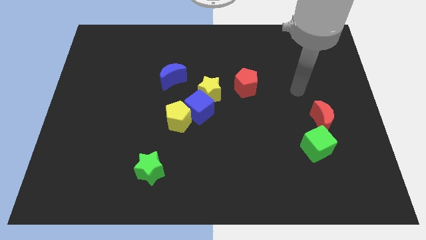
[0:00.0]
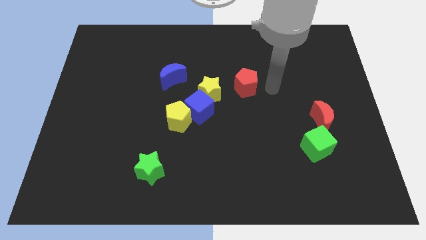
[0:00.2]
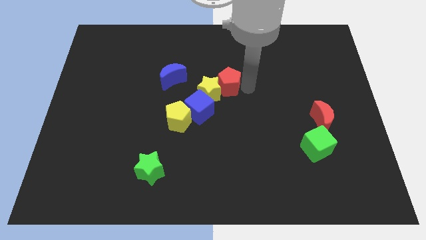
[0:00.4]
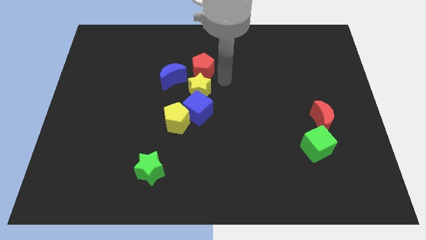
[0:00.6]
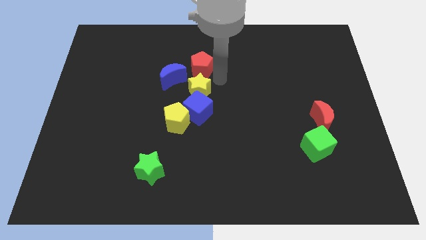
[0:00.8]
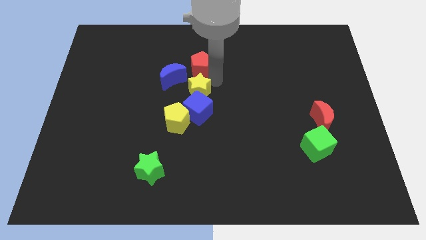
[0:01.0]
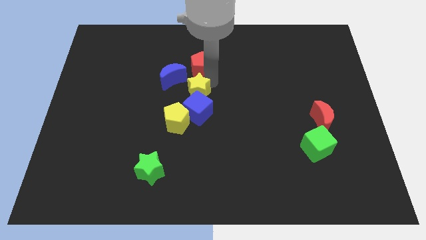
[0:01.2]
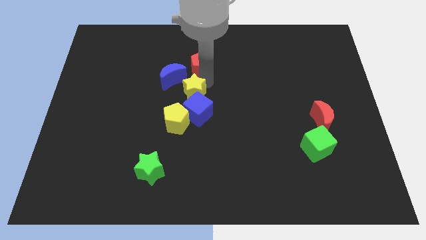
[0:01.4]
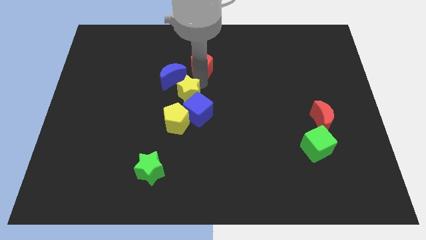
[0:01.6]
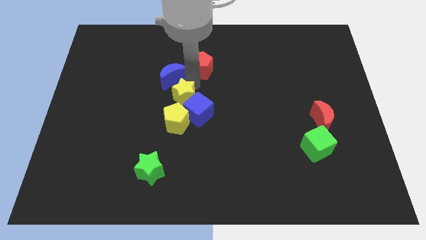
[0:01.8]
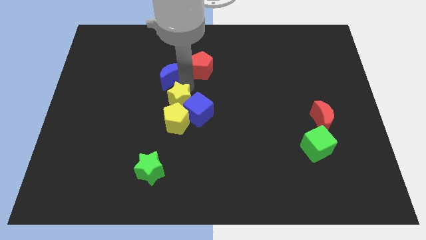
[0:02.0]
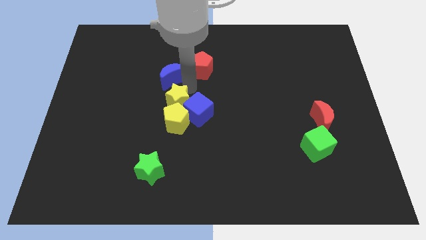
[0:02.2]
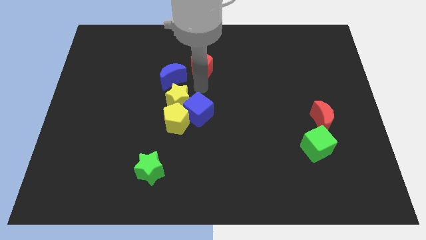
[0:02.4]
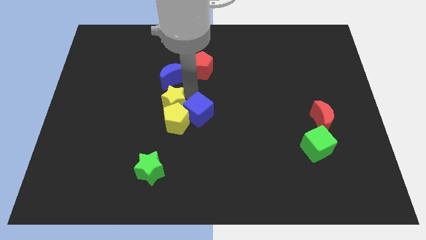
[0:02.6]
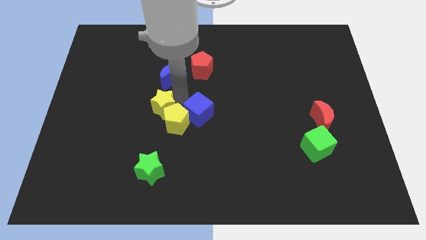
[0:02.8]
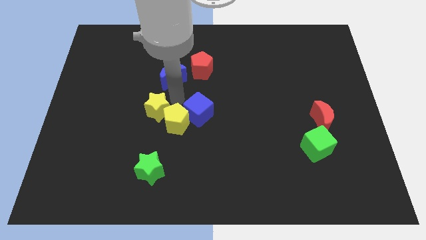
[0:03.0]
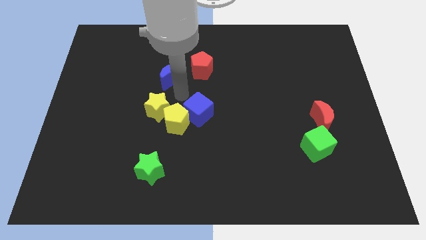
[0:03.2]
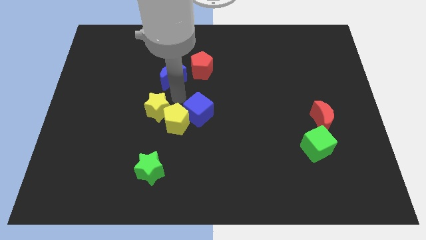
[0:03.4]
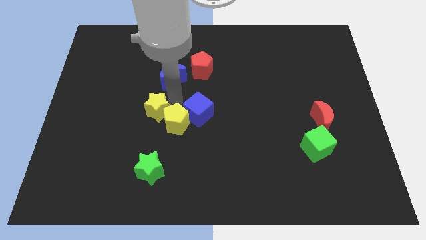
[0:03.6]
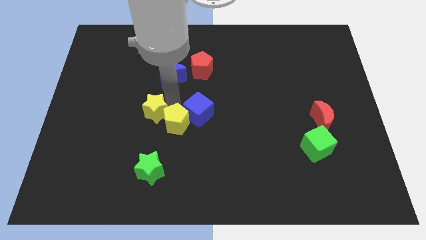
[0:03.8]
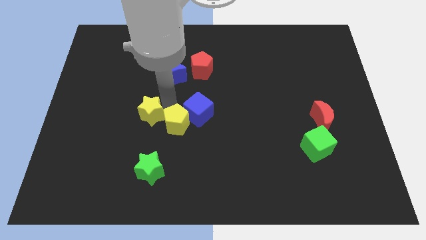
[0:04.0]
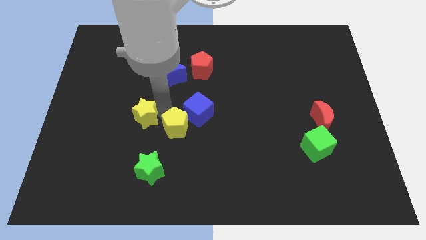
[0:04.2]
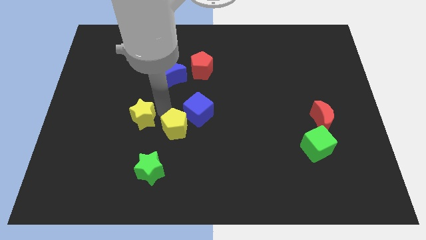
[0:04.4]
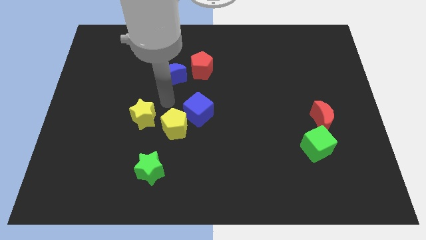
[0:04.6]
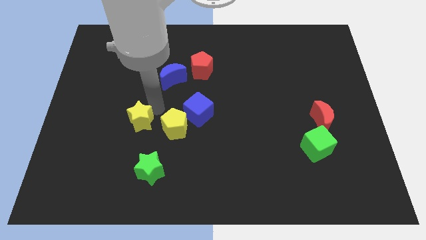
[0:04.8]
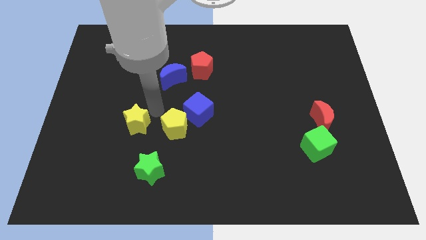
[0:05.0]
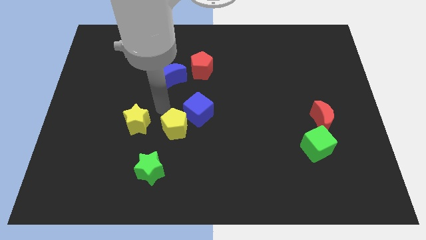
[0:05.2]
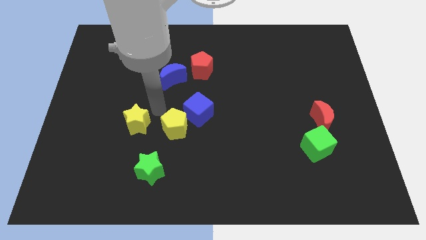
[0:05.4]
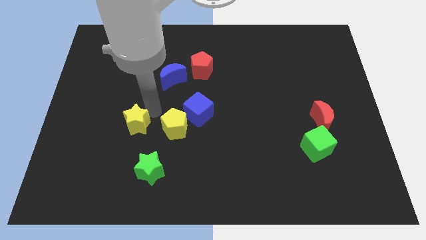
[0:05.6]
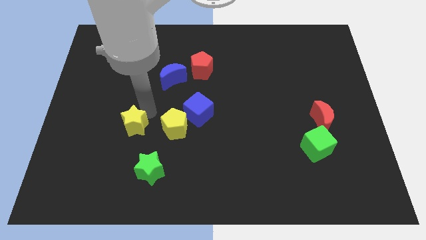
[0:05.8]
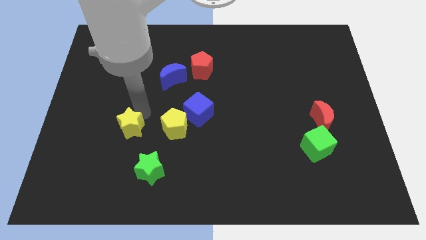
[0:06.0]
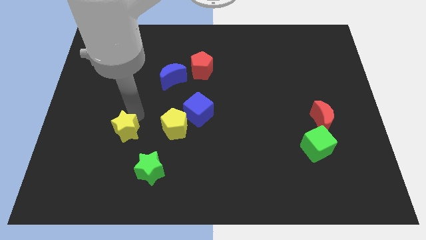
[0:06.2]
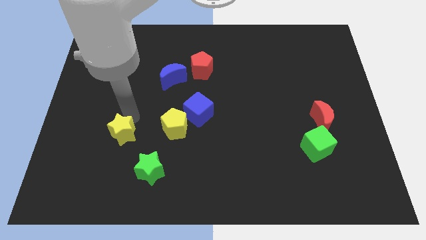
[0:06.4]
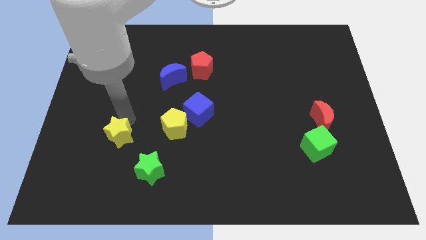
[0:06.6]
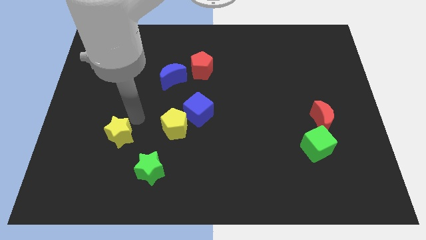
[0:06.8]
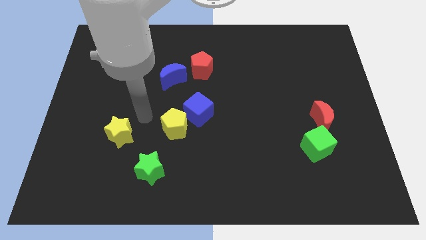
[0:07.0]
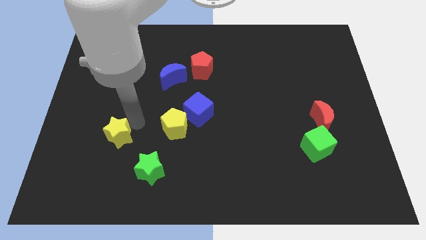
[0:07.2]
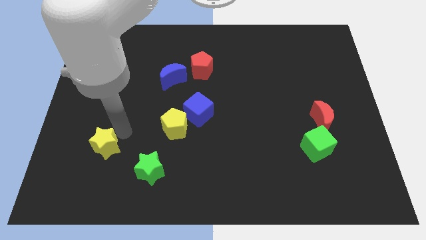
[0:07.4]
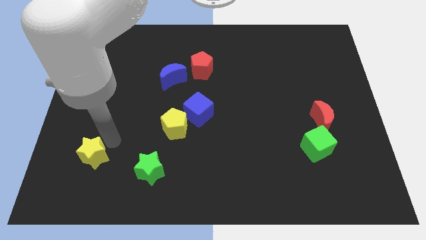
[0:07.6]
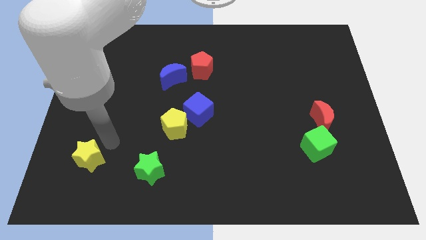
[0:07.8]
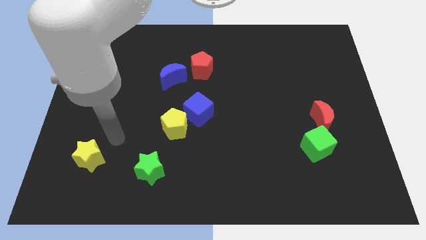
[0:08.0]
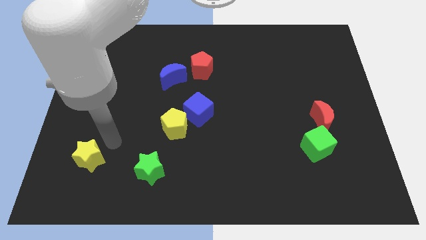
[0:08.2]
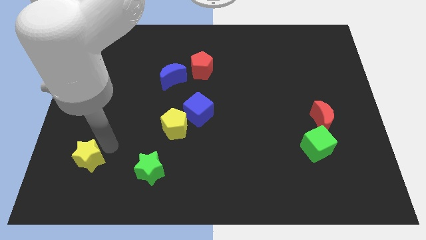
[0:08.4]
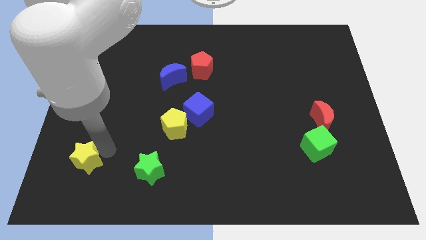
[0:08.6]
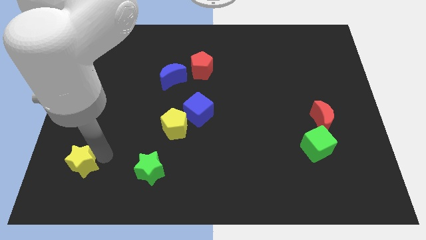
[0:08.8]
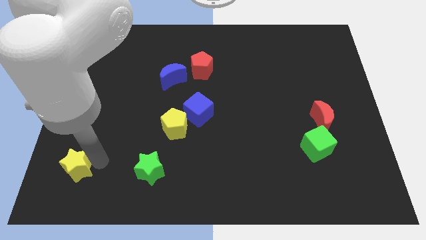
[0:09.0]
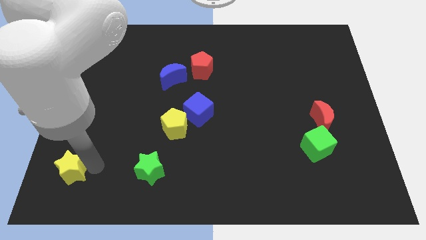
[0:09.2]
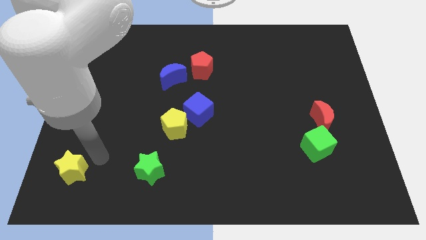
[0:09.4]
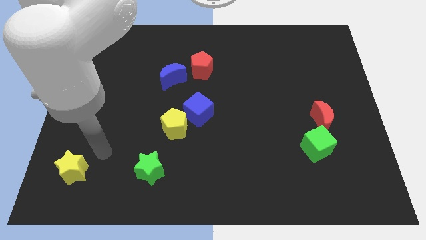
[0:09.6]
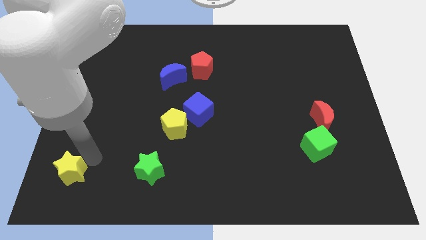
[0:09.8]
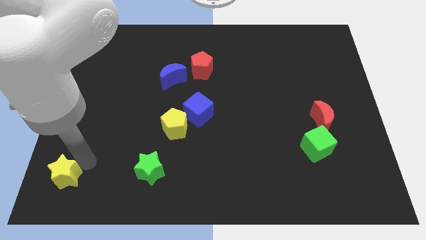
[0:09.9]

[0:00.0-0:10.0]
slide the yellow star to the bottom left

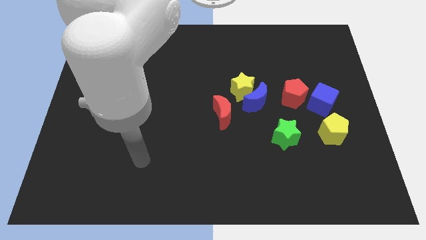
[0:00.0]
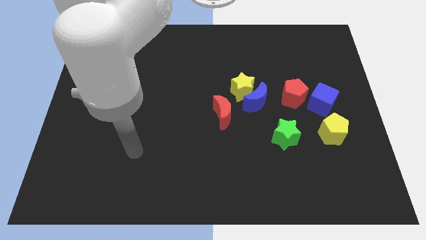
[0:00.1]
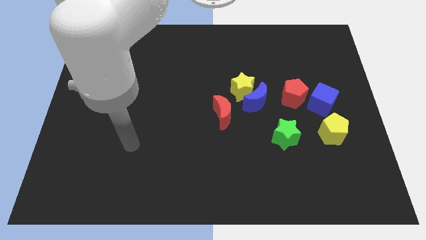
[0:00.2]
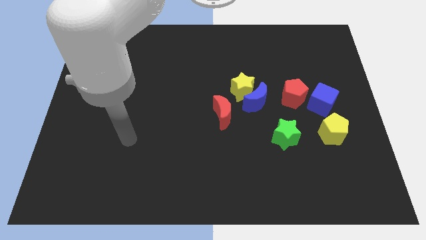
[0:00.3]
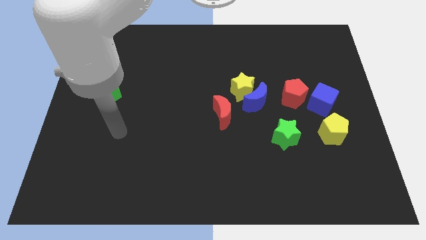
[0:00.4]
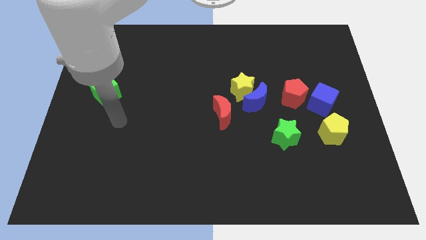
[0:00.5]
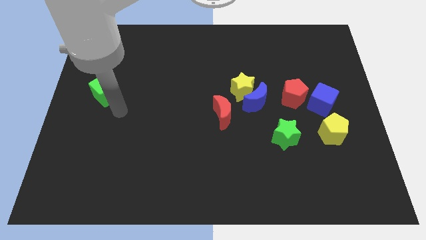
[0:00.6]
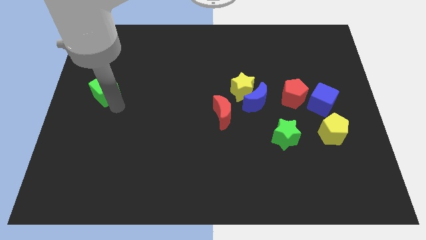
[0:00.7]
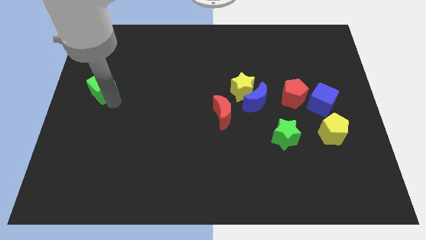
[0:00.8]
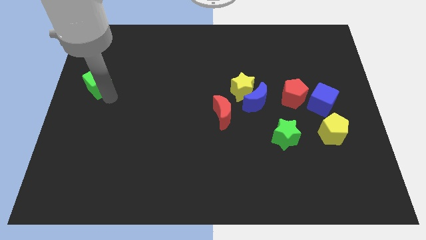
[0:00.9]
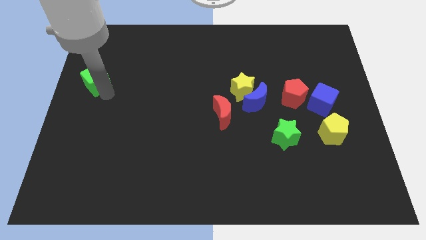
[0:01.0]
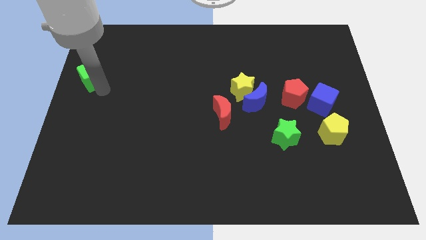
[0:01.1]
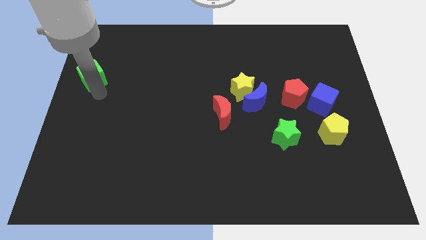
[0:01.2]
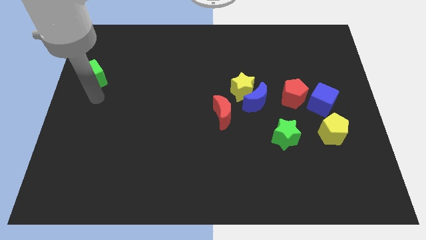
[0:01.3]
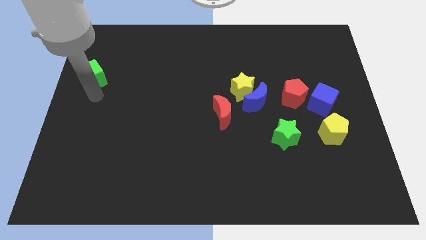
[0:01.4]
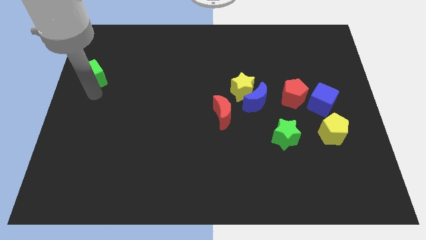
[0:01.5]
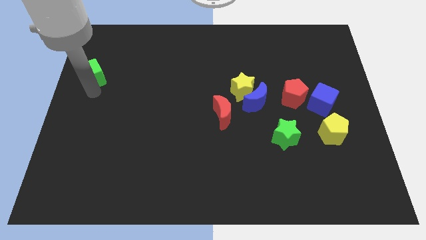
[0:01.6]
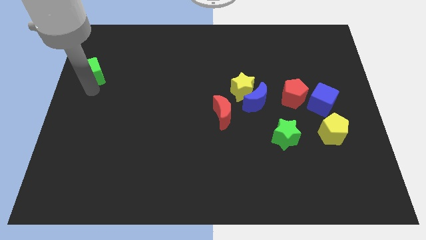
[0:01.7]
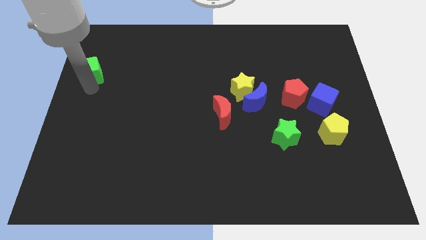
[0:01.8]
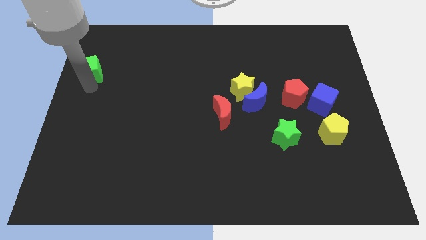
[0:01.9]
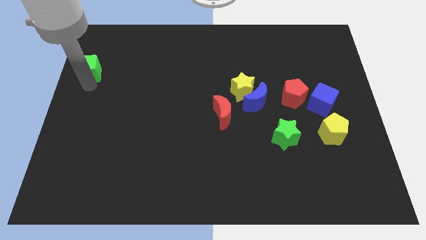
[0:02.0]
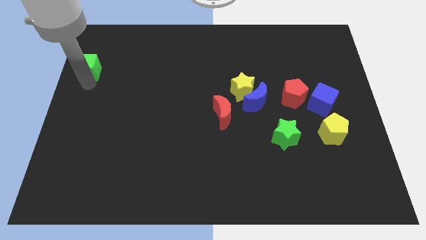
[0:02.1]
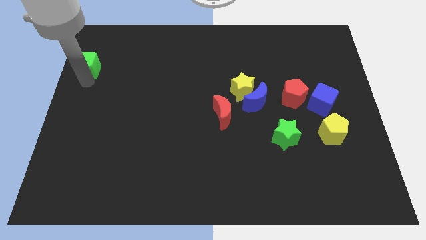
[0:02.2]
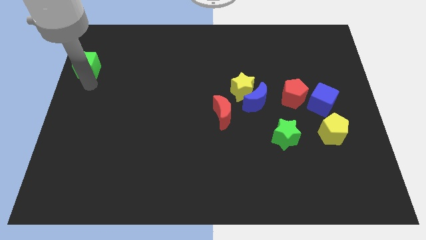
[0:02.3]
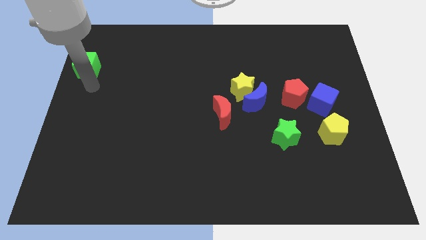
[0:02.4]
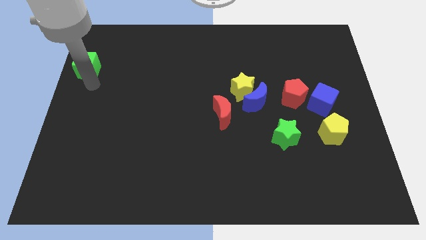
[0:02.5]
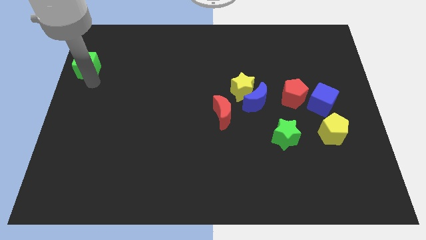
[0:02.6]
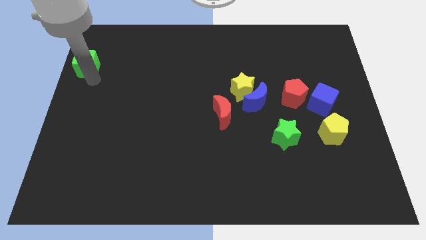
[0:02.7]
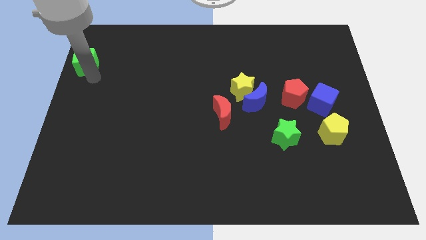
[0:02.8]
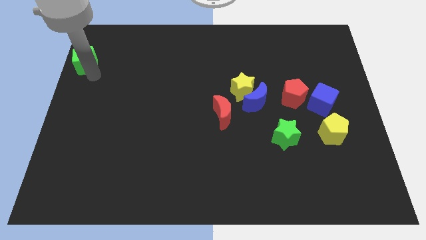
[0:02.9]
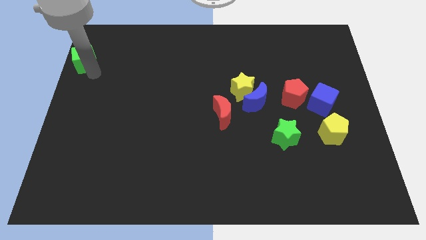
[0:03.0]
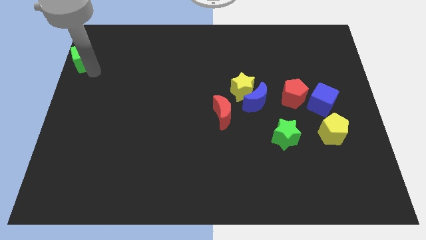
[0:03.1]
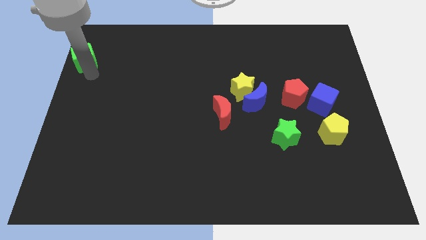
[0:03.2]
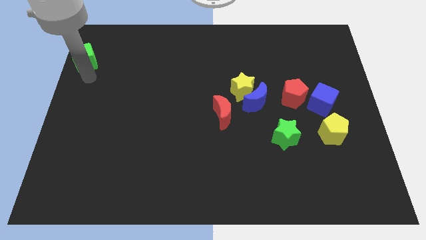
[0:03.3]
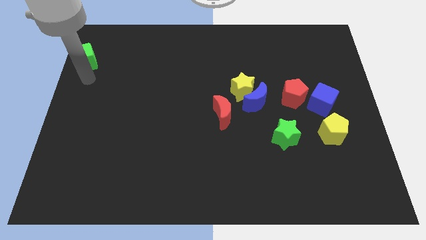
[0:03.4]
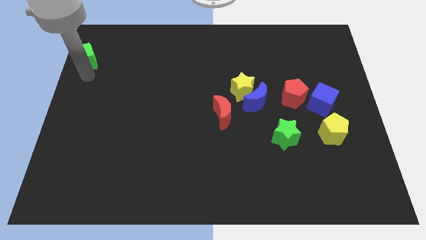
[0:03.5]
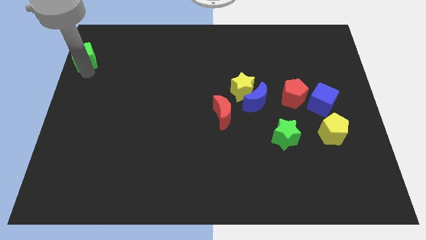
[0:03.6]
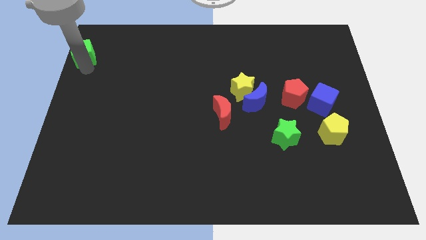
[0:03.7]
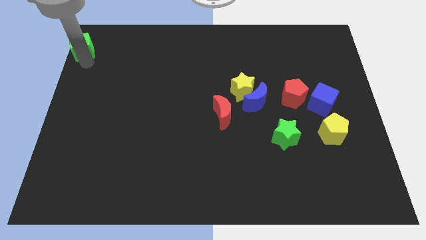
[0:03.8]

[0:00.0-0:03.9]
move the green cube to the upper left corner
